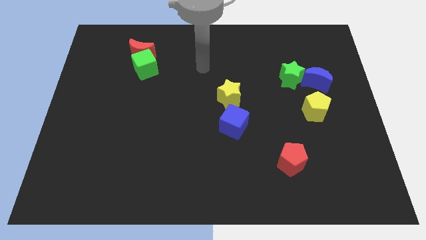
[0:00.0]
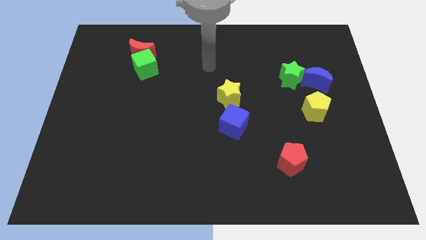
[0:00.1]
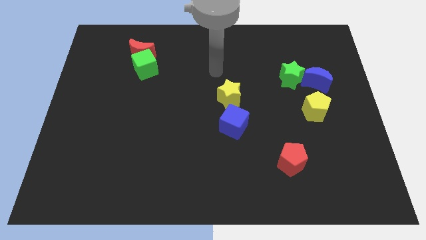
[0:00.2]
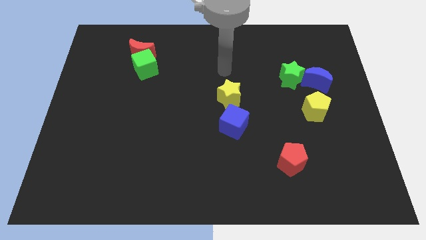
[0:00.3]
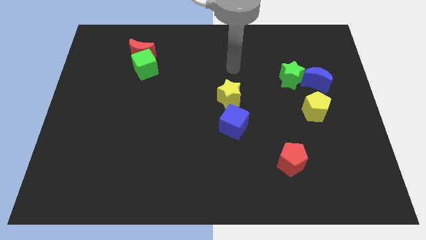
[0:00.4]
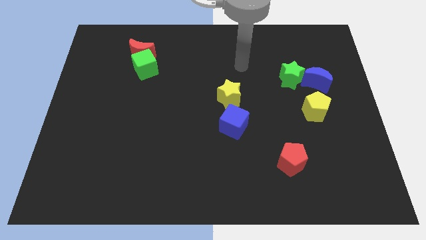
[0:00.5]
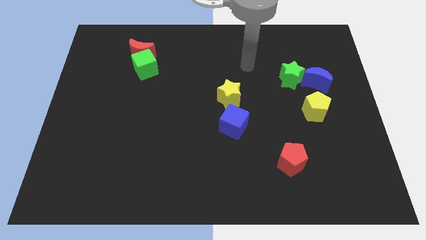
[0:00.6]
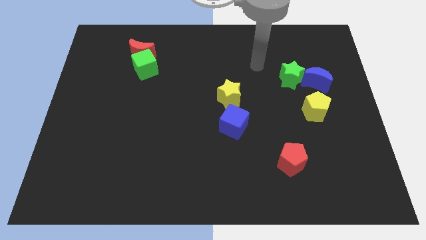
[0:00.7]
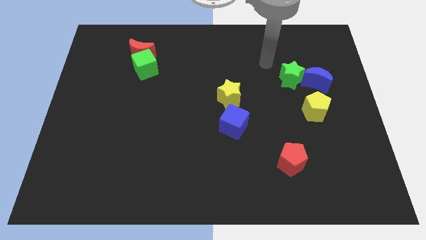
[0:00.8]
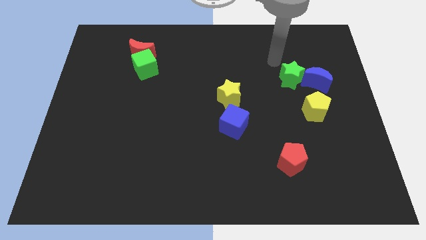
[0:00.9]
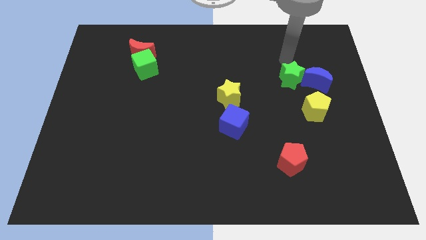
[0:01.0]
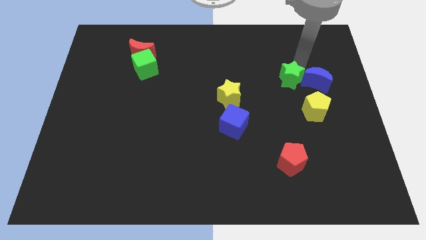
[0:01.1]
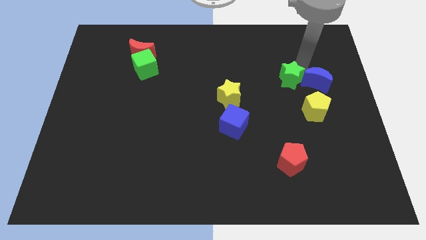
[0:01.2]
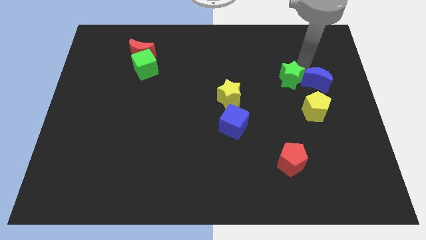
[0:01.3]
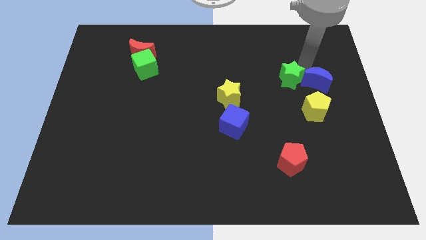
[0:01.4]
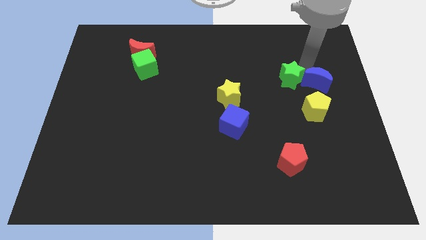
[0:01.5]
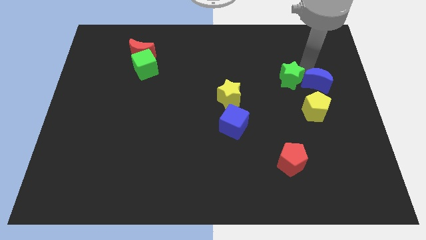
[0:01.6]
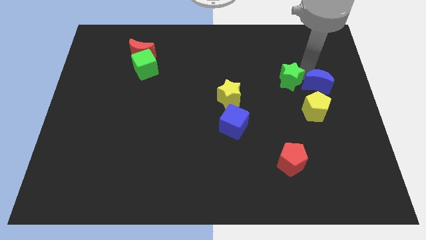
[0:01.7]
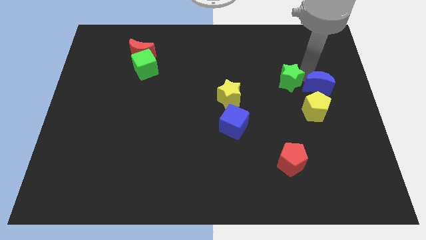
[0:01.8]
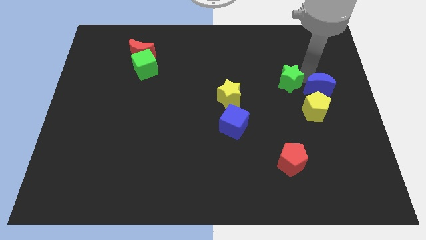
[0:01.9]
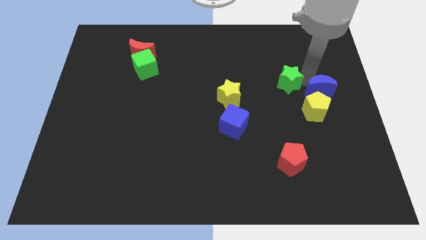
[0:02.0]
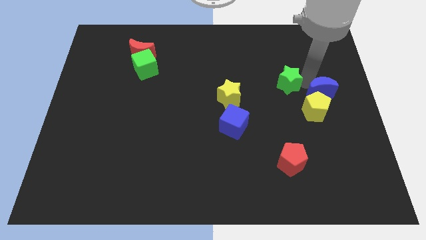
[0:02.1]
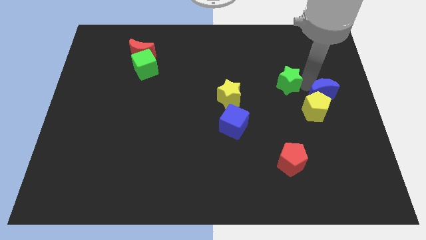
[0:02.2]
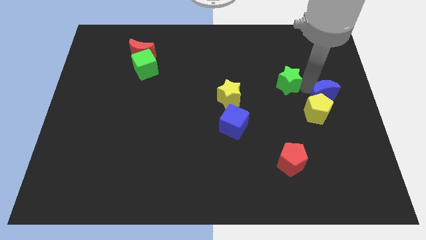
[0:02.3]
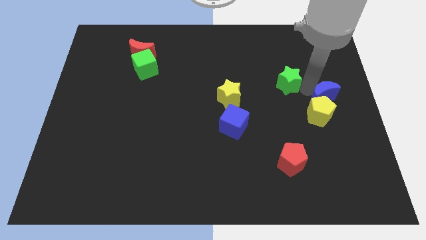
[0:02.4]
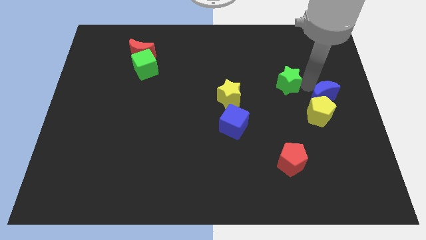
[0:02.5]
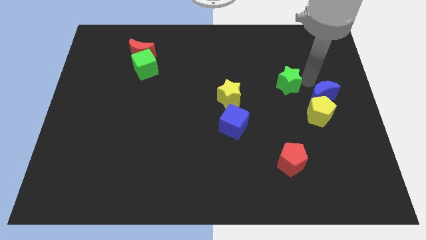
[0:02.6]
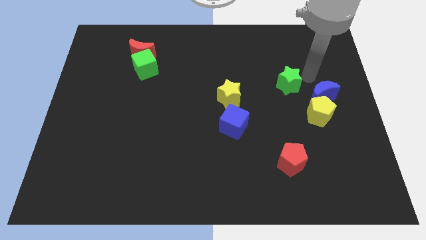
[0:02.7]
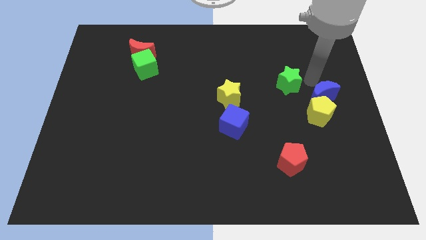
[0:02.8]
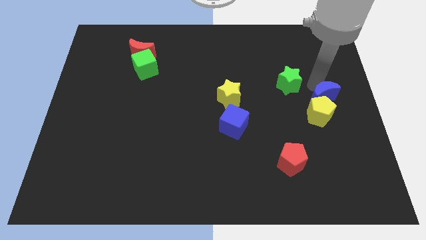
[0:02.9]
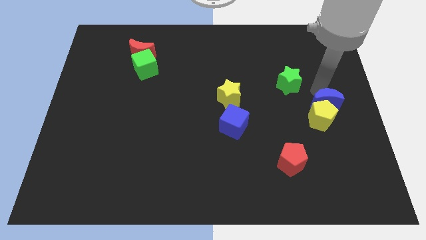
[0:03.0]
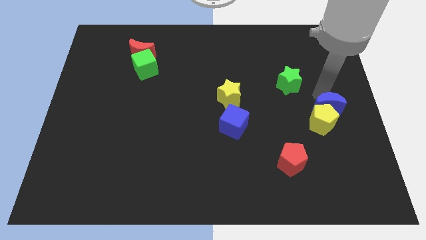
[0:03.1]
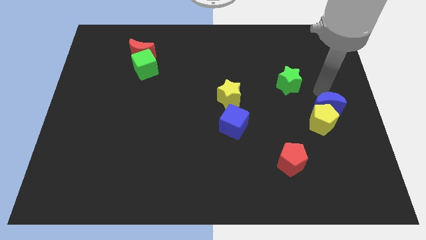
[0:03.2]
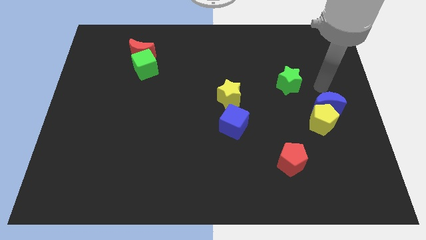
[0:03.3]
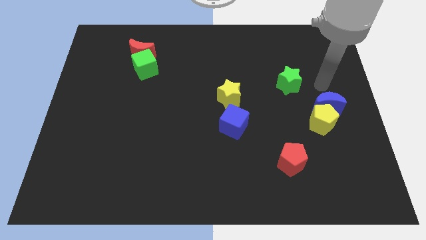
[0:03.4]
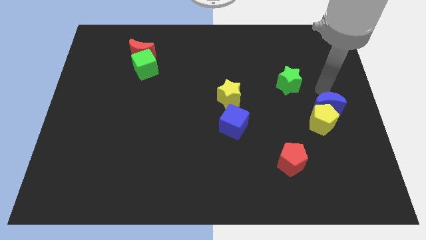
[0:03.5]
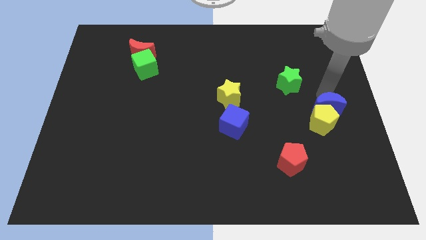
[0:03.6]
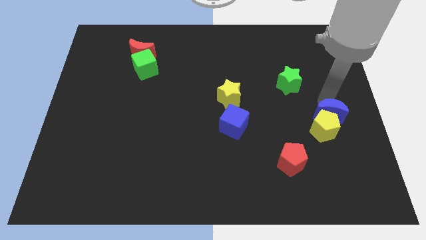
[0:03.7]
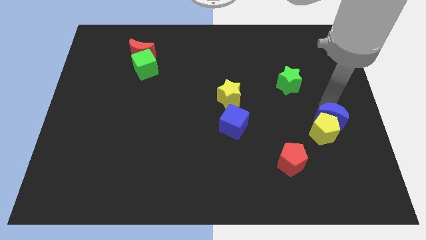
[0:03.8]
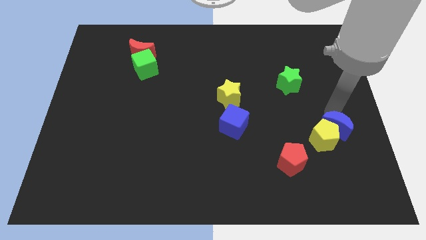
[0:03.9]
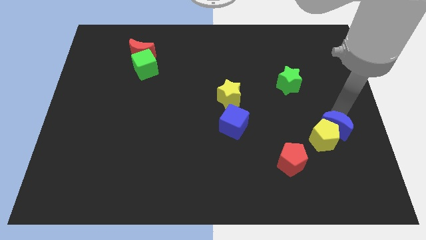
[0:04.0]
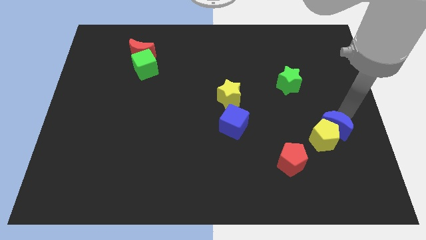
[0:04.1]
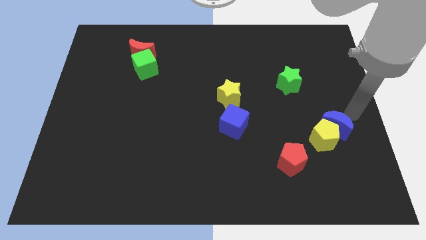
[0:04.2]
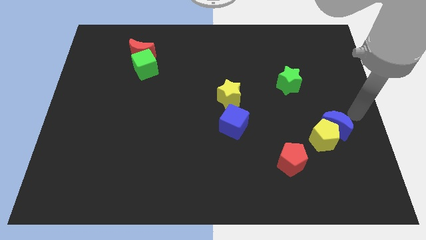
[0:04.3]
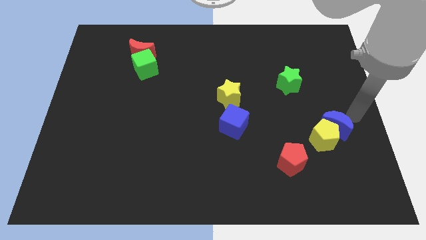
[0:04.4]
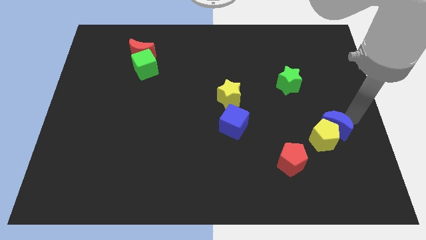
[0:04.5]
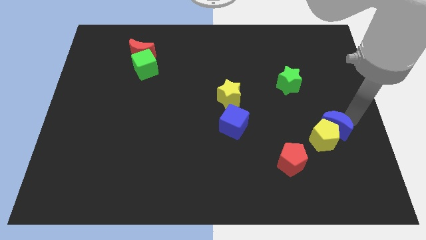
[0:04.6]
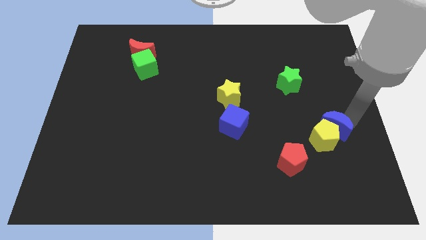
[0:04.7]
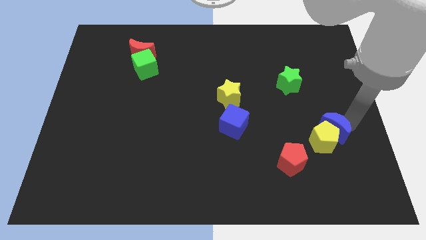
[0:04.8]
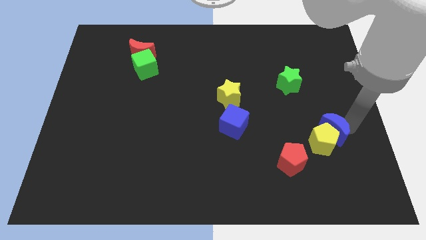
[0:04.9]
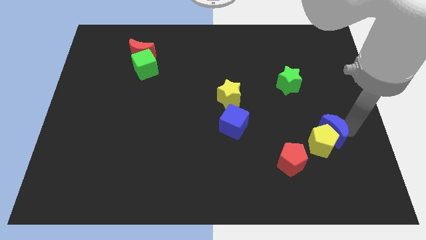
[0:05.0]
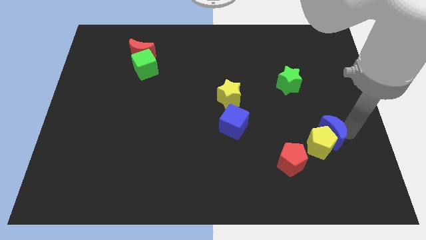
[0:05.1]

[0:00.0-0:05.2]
put the blue moon to the top right side of the red pentagon

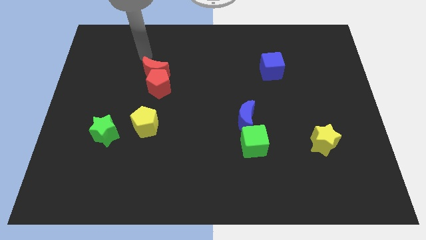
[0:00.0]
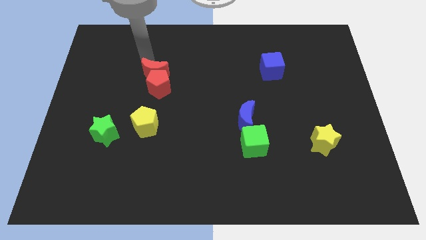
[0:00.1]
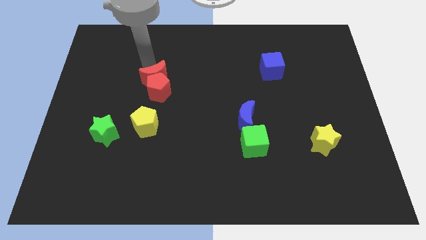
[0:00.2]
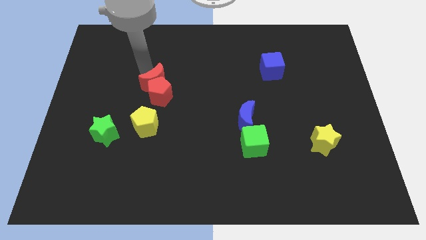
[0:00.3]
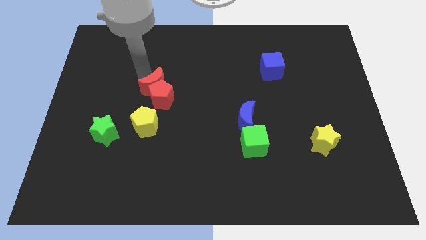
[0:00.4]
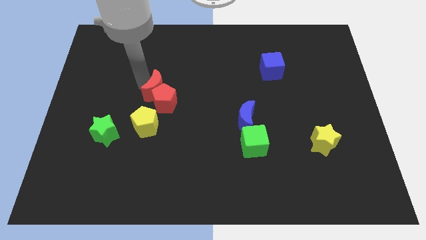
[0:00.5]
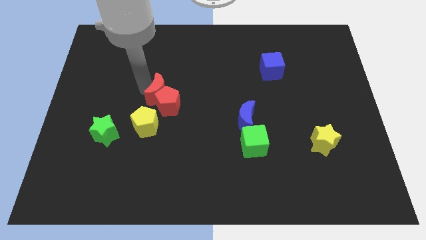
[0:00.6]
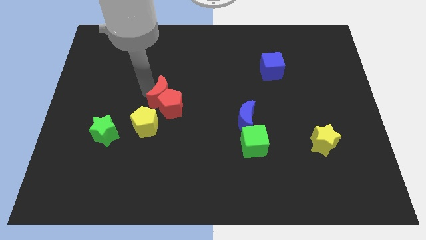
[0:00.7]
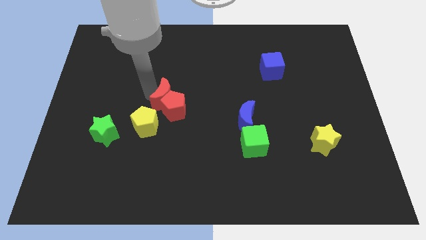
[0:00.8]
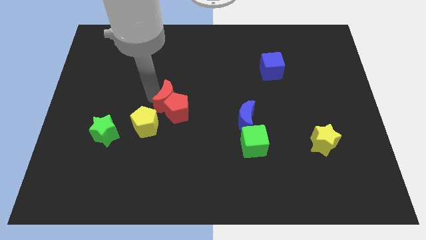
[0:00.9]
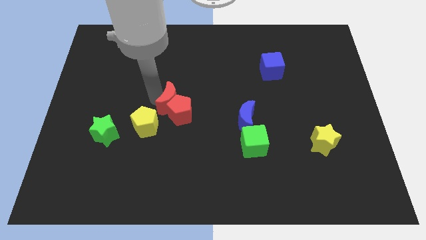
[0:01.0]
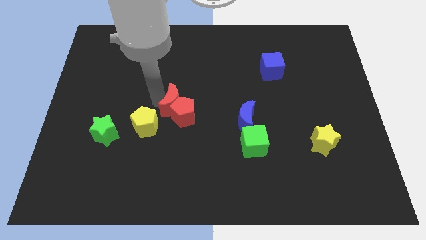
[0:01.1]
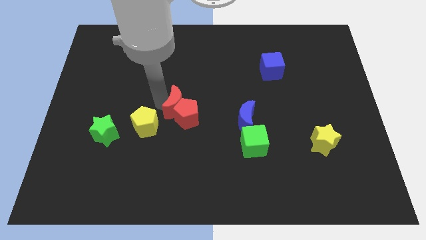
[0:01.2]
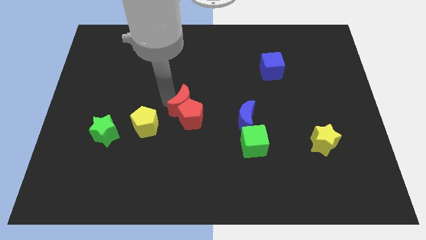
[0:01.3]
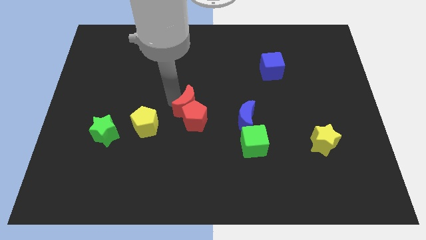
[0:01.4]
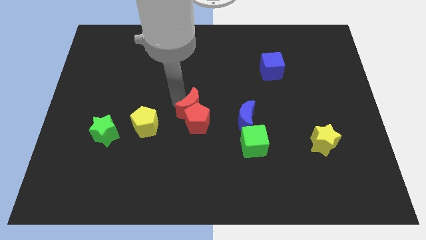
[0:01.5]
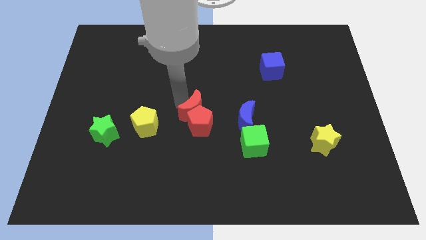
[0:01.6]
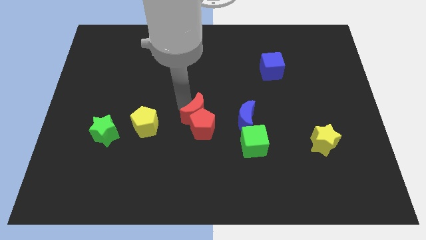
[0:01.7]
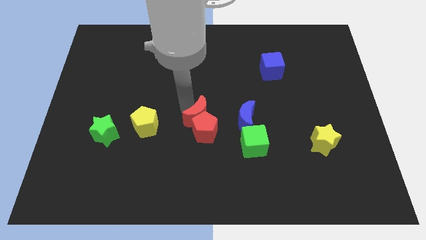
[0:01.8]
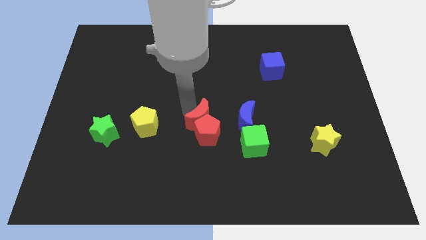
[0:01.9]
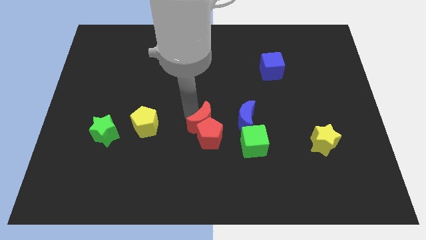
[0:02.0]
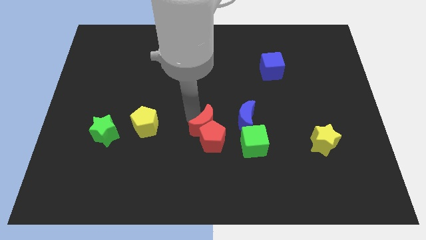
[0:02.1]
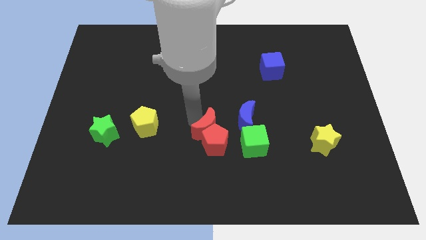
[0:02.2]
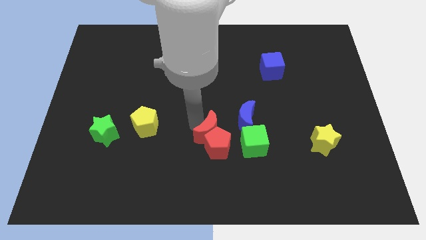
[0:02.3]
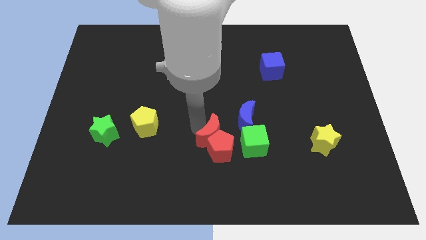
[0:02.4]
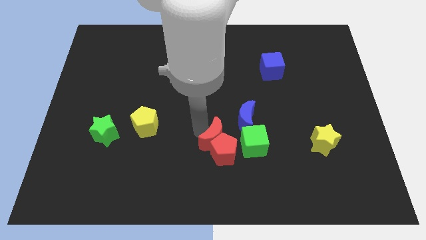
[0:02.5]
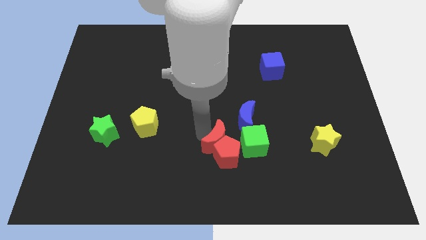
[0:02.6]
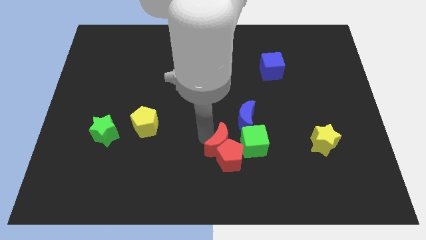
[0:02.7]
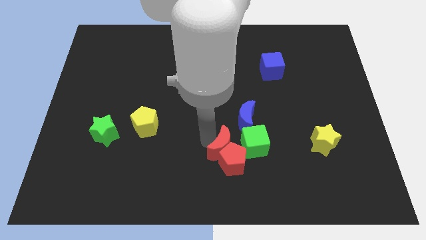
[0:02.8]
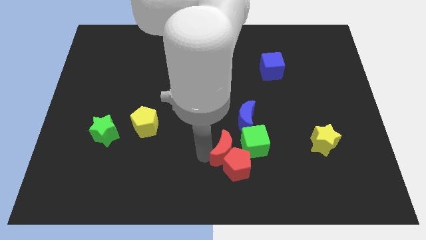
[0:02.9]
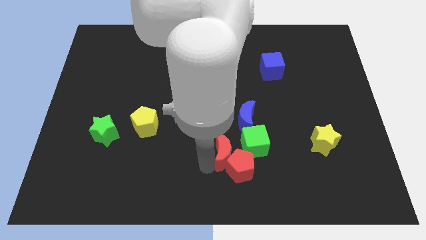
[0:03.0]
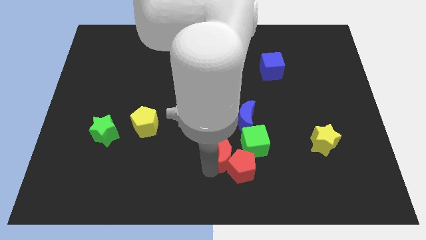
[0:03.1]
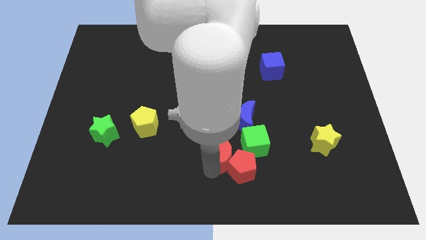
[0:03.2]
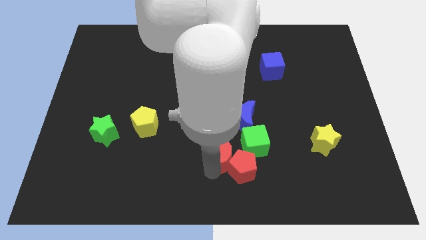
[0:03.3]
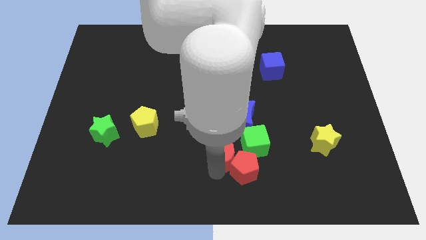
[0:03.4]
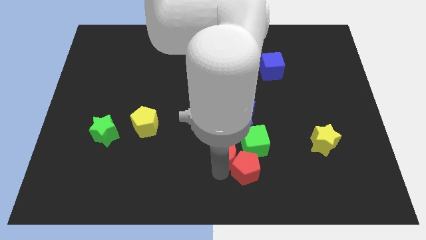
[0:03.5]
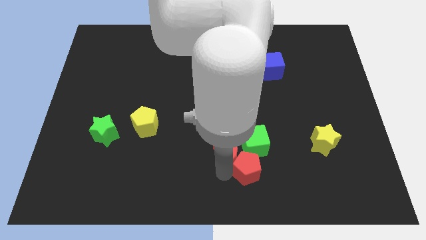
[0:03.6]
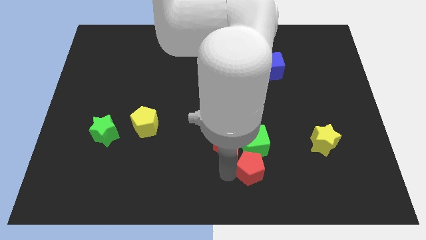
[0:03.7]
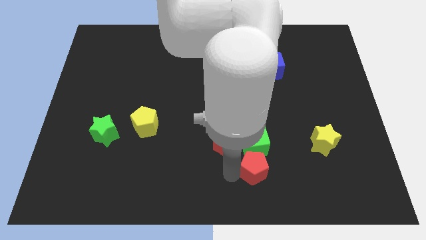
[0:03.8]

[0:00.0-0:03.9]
move the red pentagon to the bottom right side of the green cube
